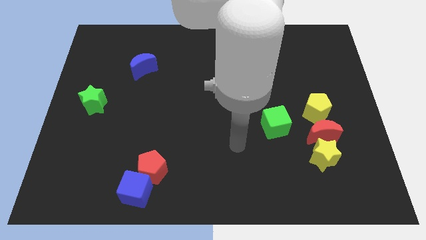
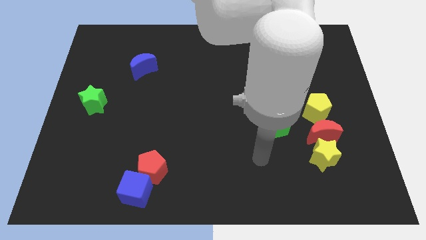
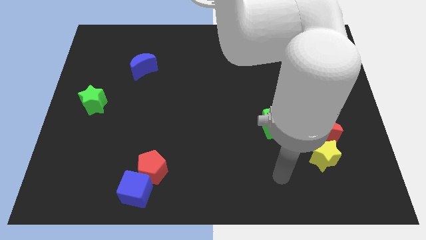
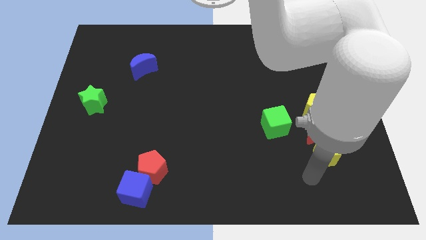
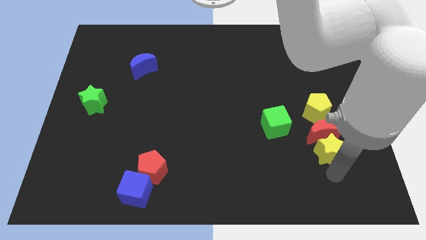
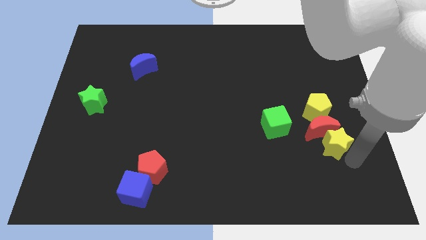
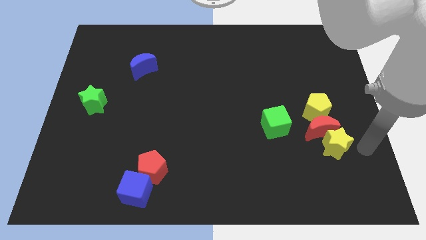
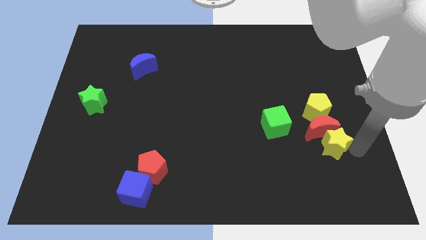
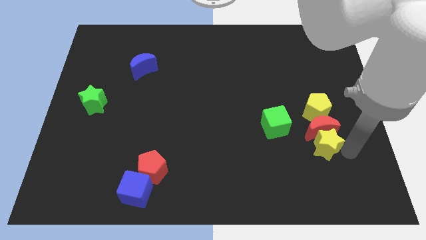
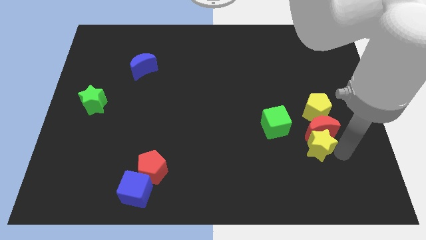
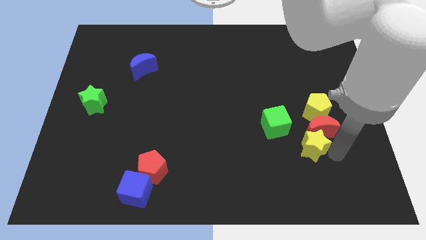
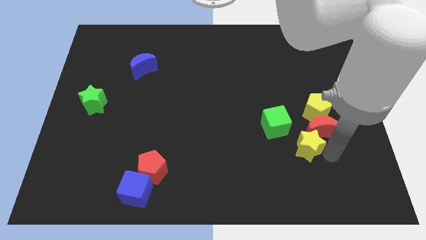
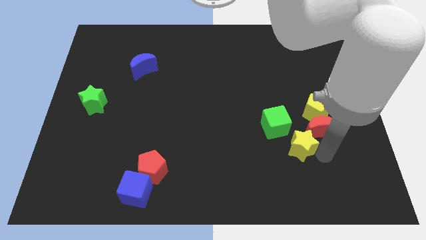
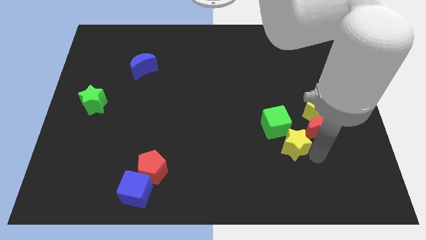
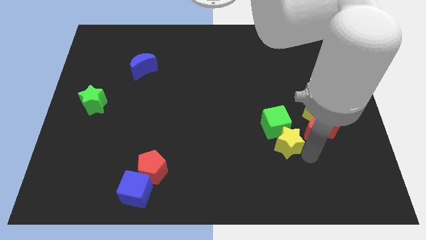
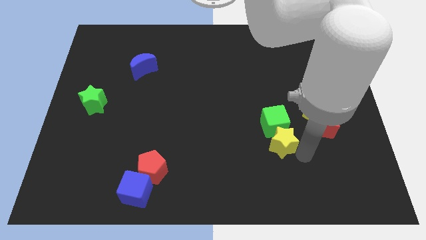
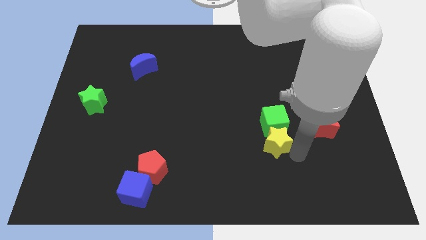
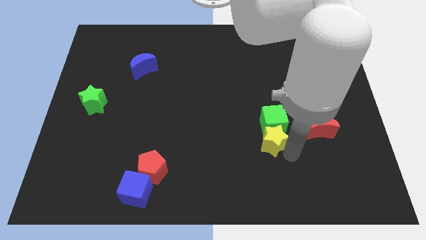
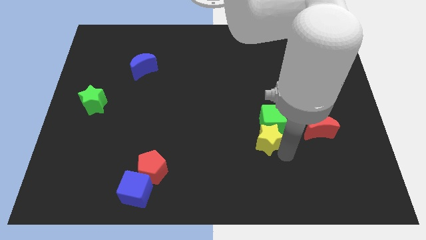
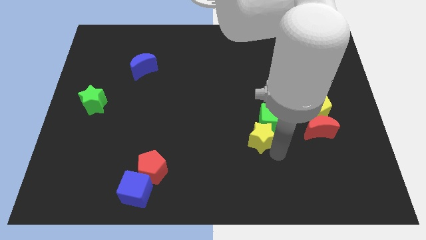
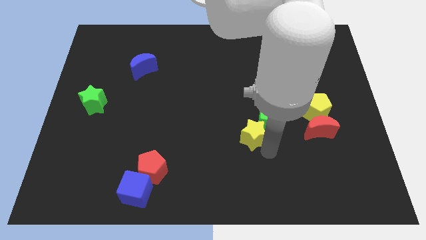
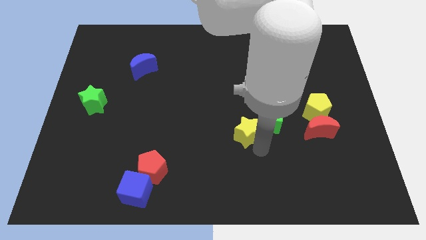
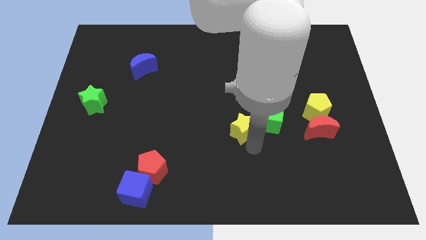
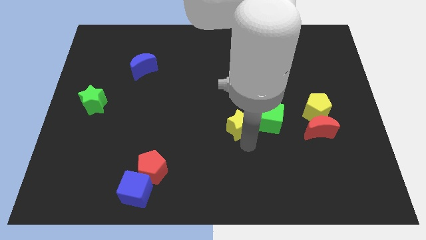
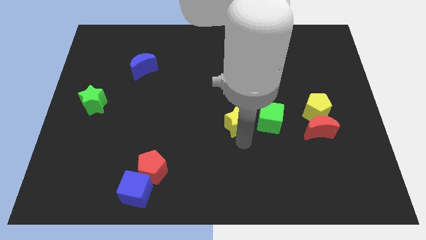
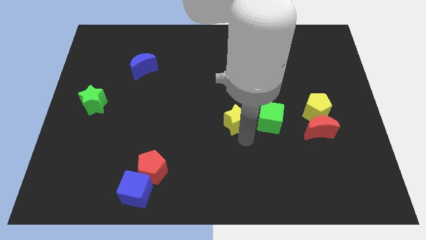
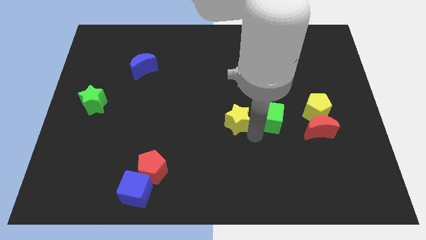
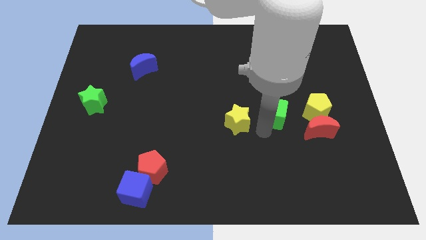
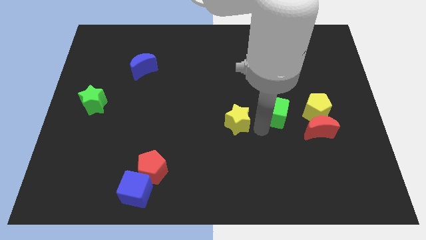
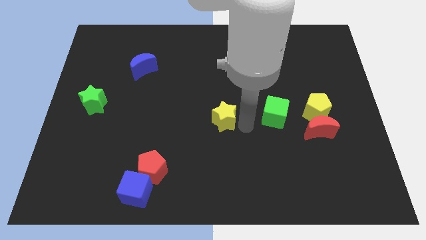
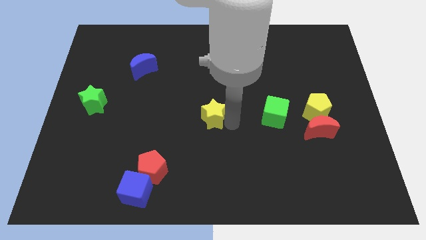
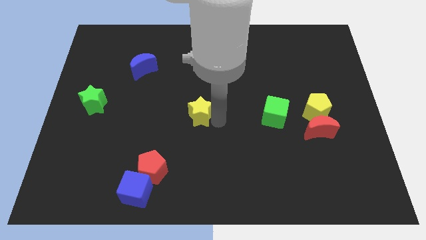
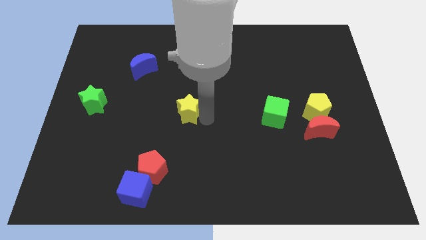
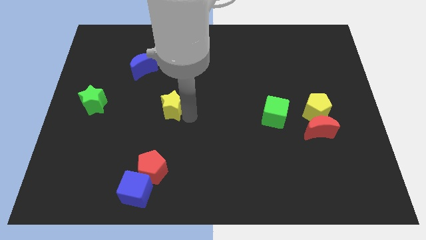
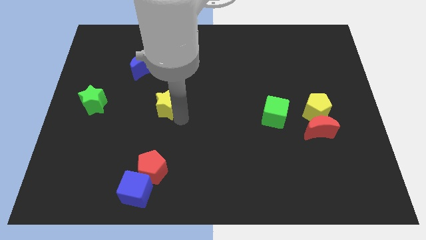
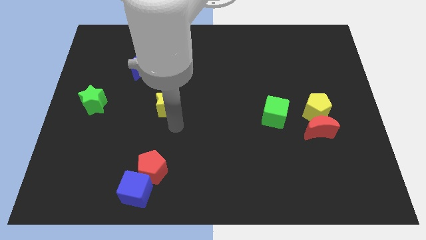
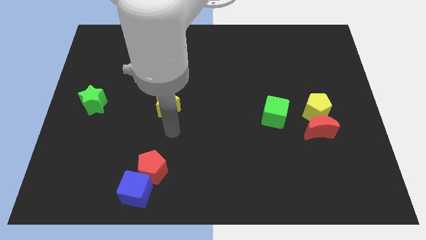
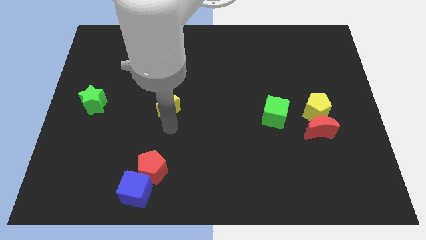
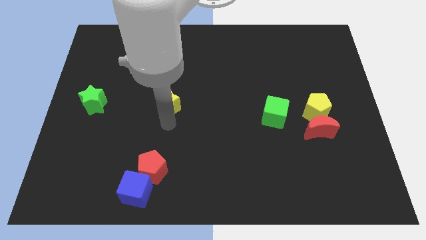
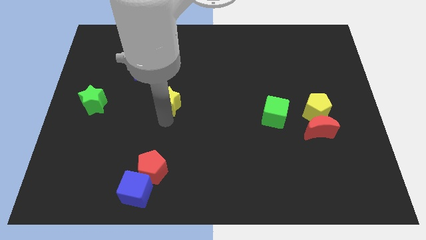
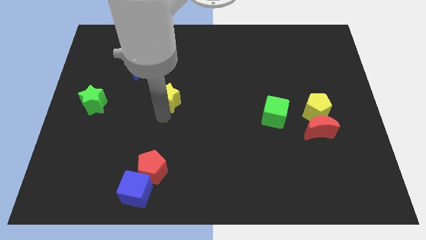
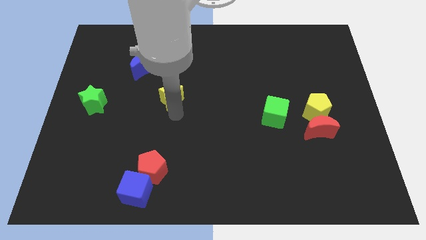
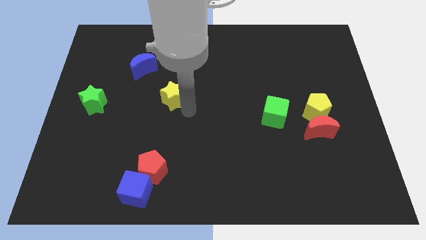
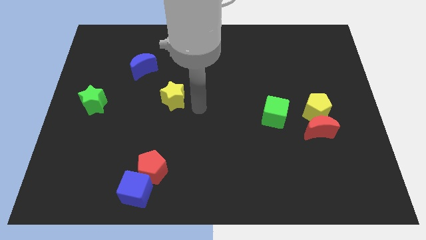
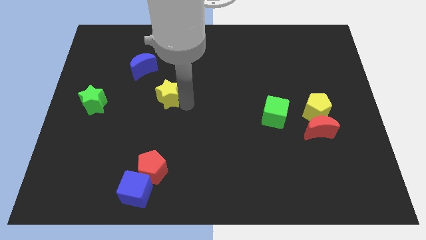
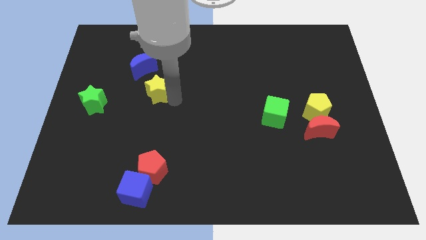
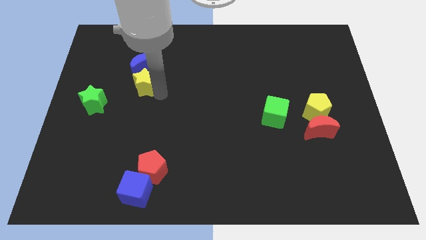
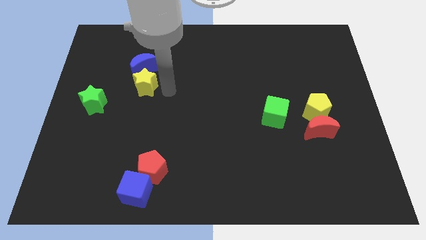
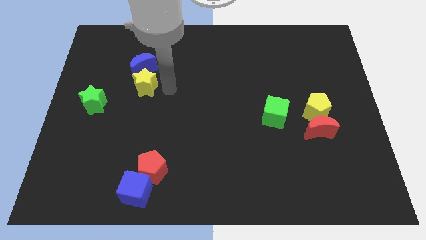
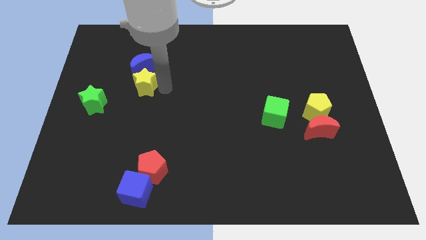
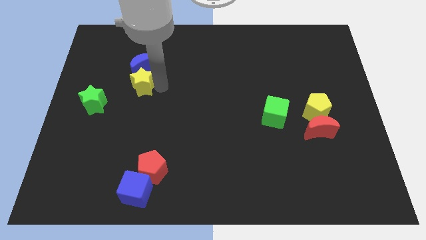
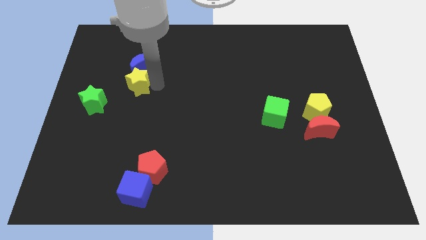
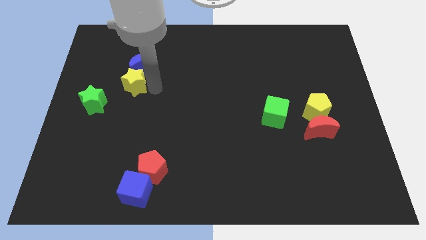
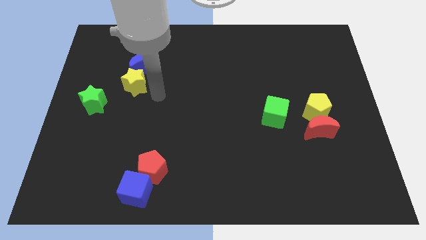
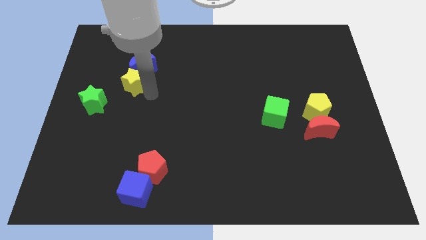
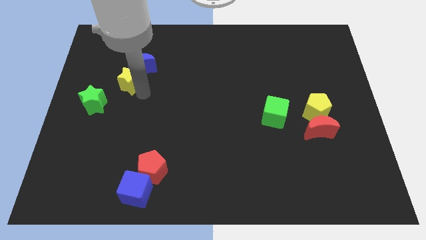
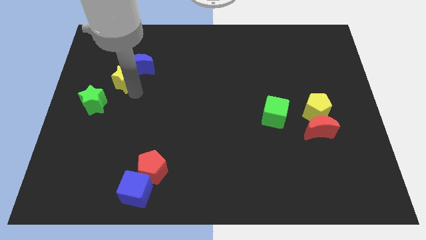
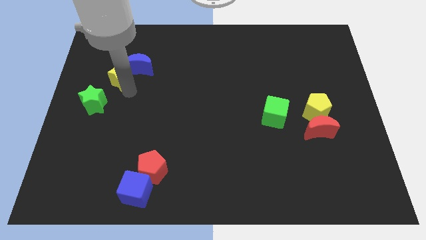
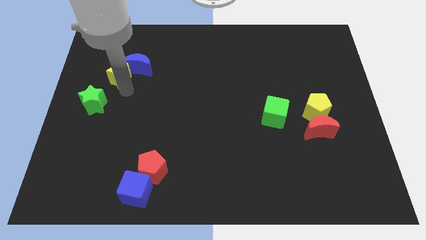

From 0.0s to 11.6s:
slide the yellow star to the top side of the green star

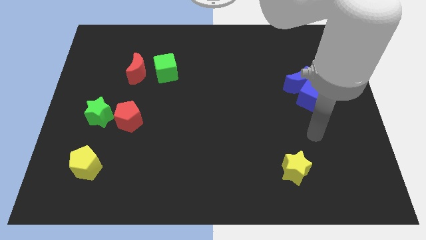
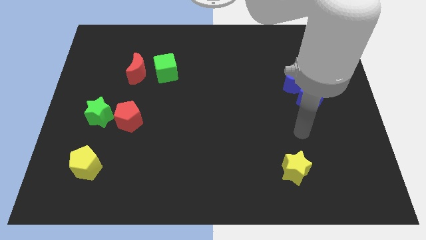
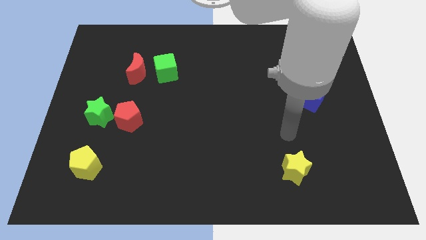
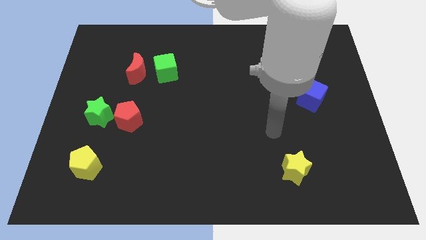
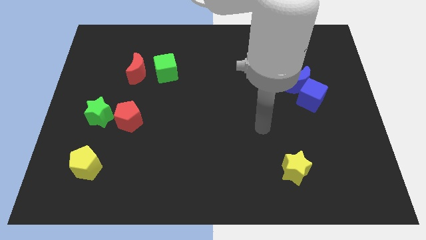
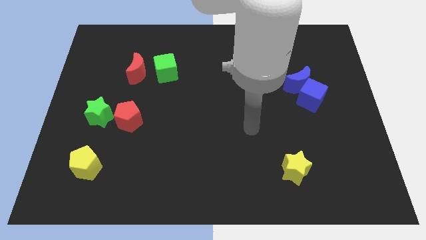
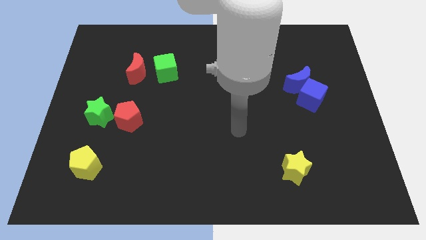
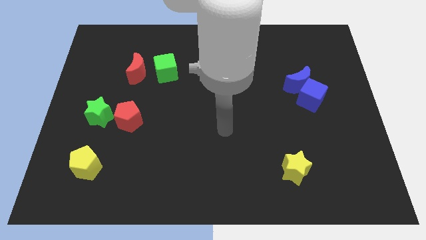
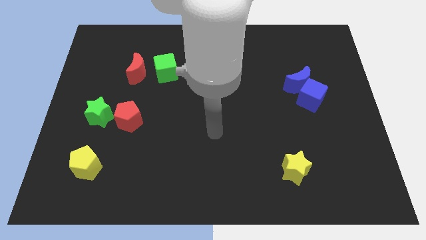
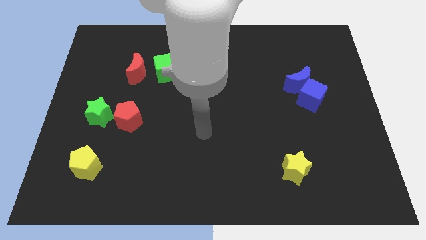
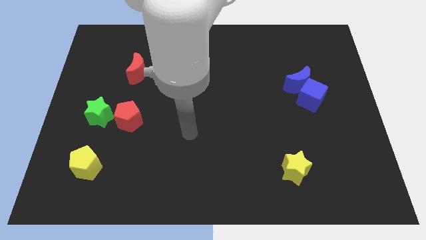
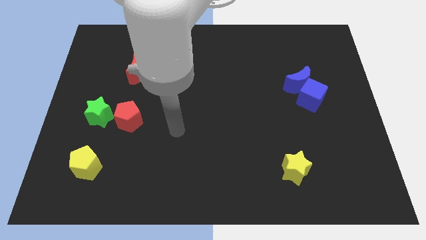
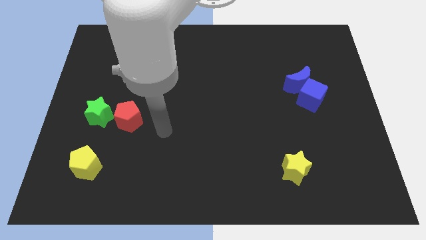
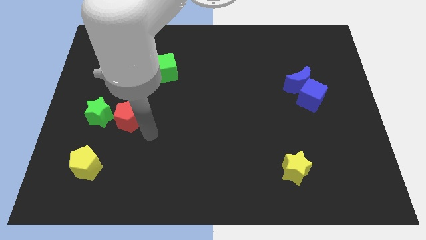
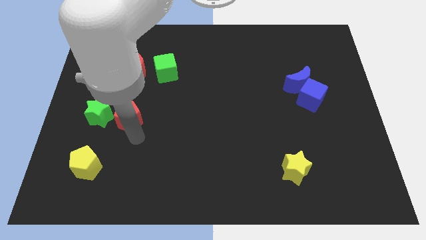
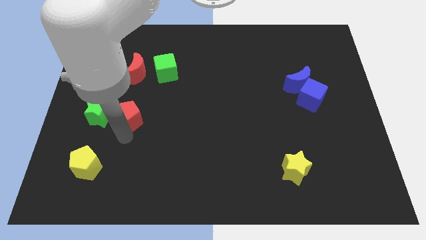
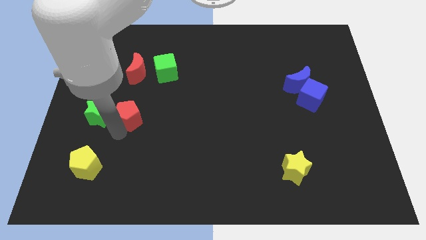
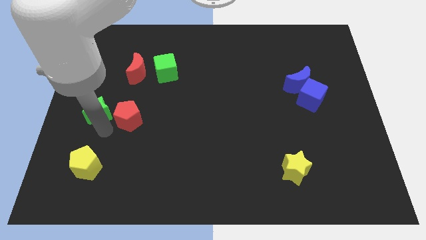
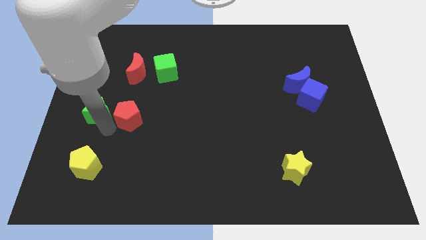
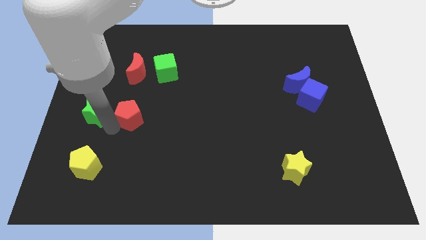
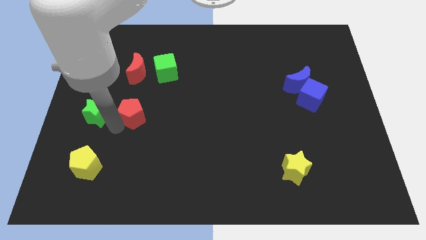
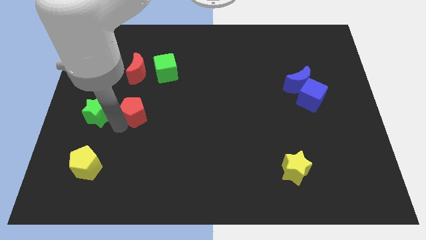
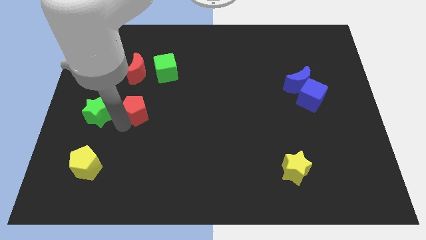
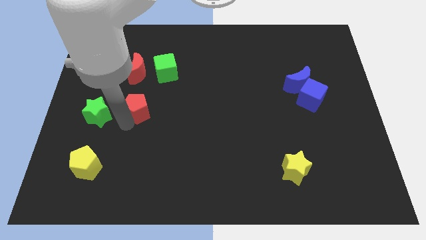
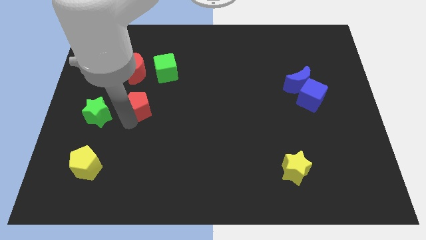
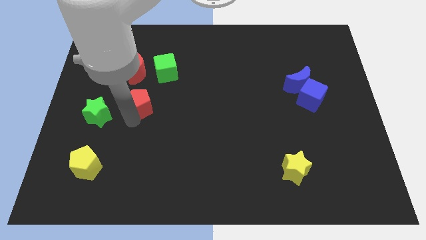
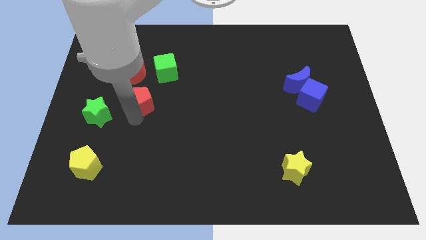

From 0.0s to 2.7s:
put the red pentagon to the bottom side of the green cube
